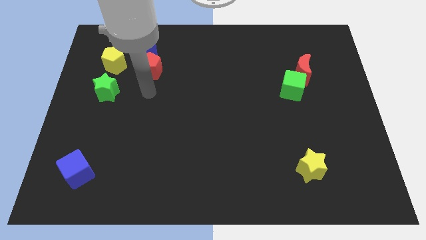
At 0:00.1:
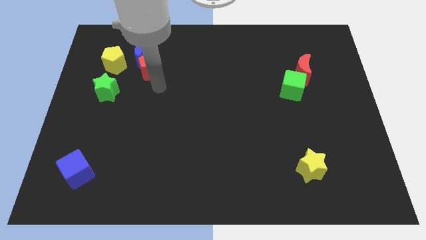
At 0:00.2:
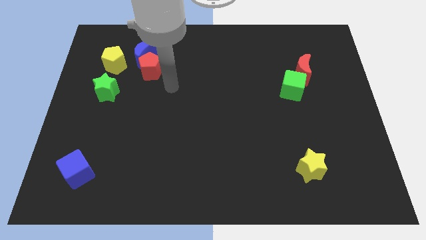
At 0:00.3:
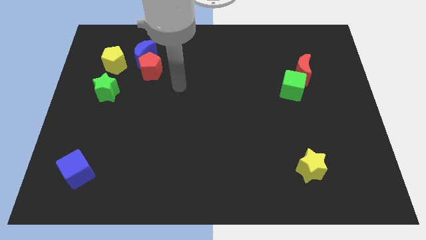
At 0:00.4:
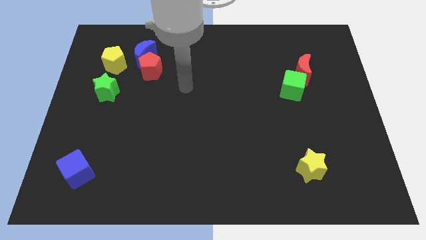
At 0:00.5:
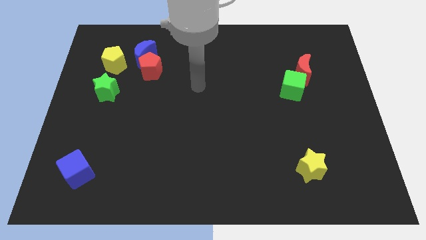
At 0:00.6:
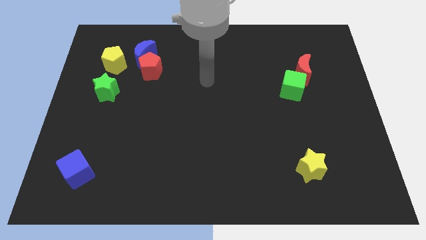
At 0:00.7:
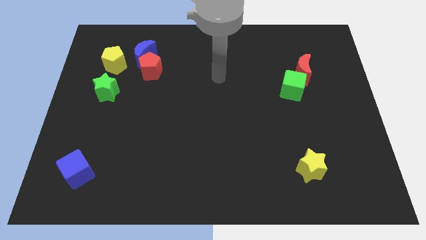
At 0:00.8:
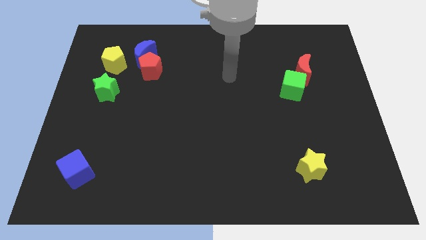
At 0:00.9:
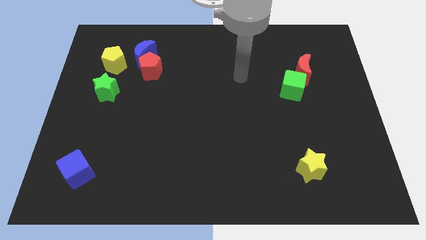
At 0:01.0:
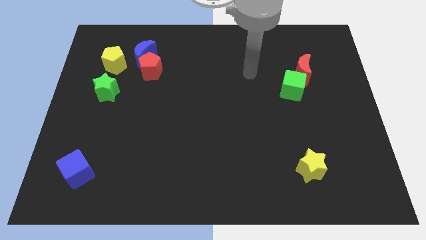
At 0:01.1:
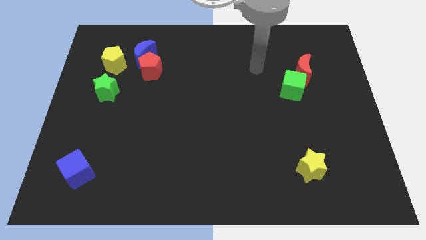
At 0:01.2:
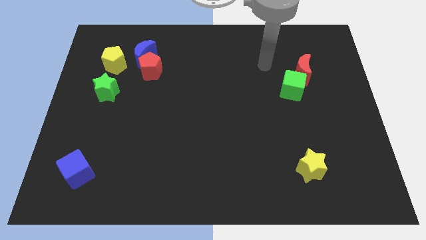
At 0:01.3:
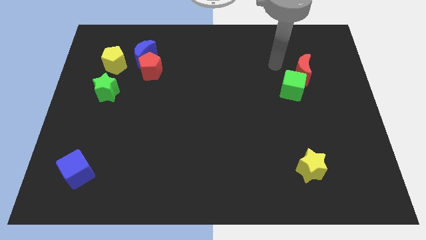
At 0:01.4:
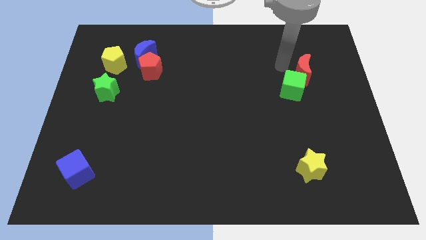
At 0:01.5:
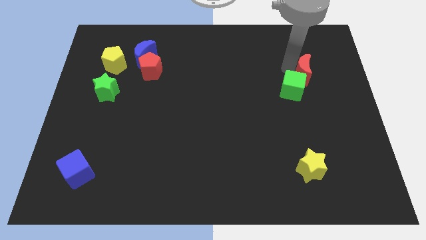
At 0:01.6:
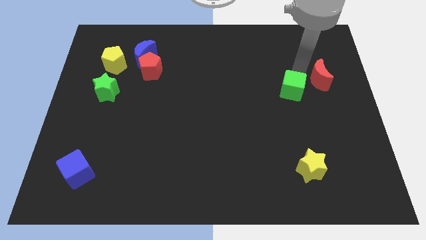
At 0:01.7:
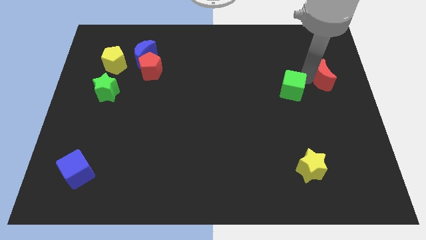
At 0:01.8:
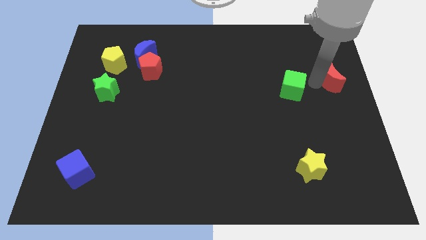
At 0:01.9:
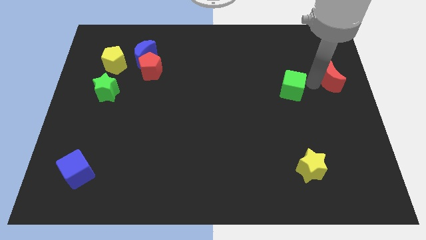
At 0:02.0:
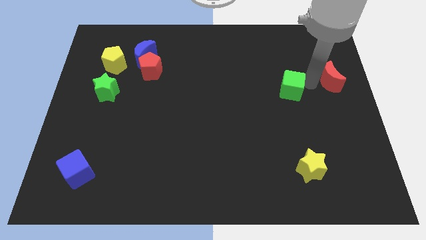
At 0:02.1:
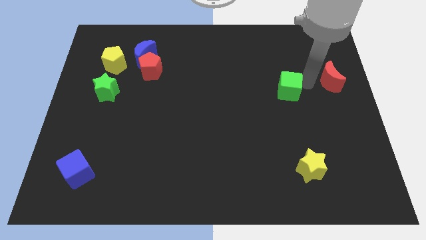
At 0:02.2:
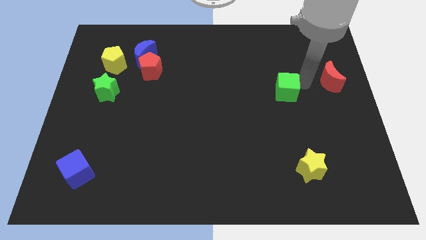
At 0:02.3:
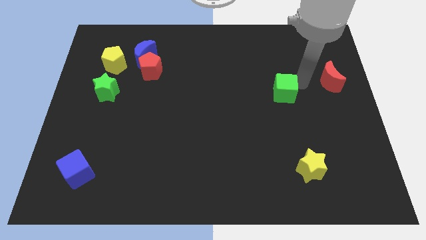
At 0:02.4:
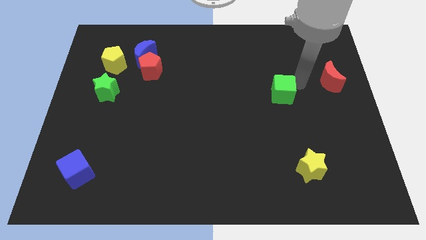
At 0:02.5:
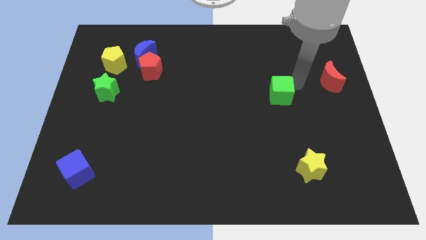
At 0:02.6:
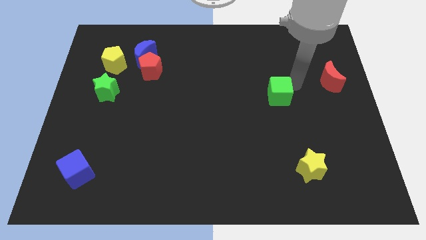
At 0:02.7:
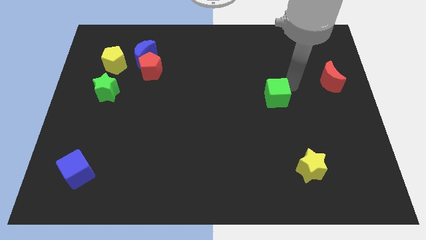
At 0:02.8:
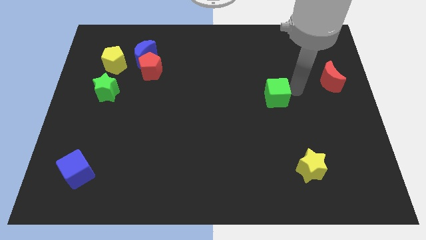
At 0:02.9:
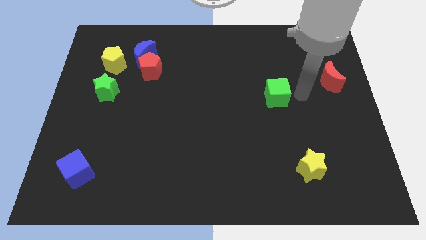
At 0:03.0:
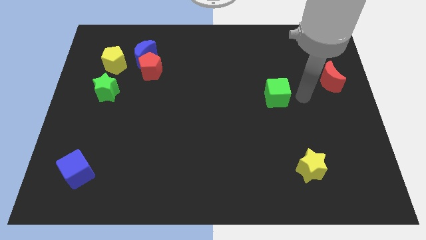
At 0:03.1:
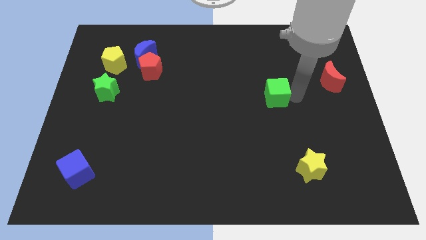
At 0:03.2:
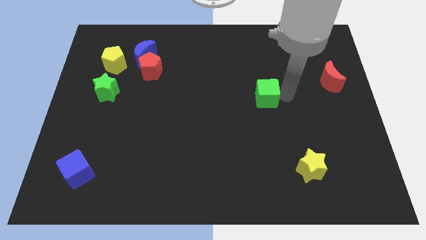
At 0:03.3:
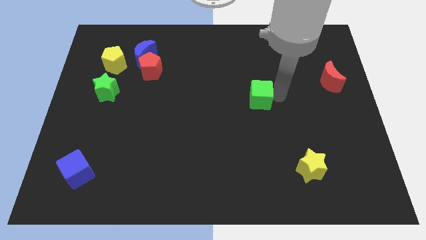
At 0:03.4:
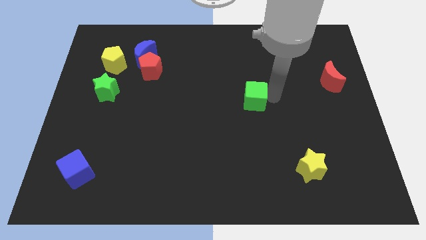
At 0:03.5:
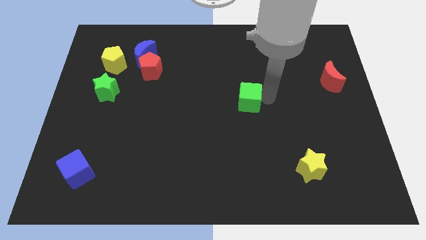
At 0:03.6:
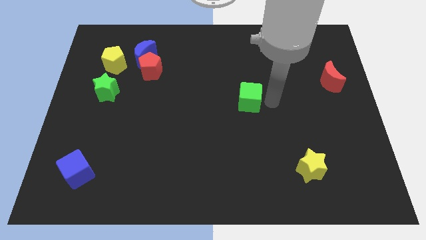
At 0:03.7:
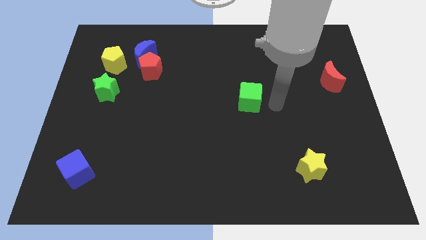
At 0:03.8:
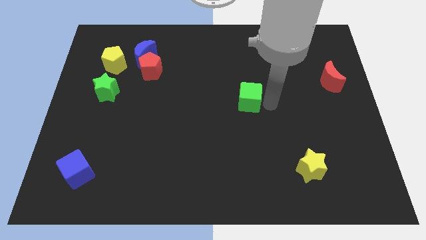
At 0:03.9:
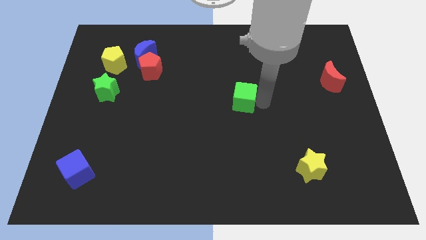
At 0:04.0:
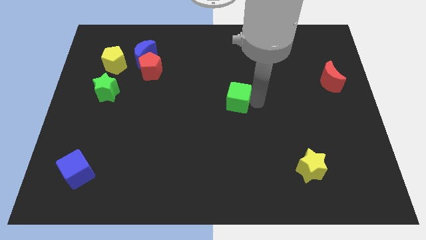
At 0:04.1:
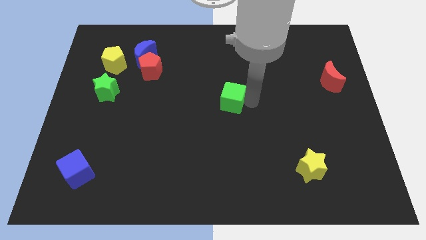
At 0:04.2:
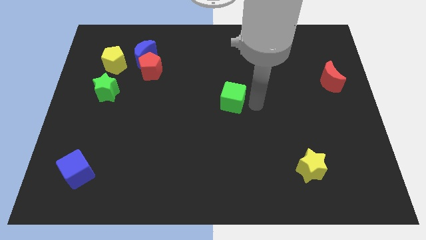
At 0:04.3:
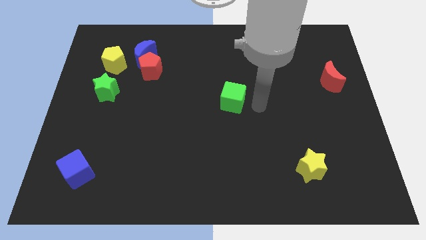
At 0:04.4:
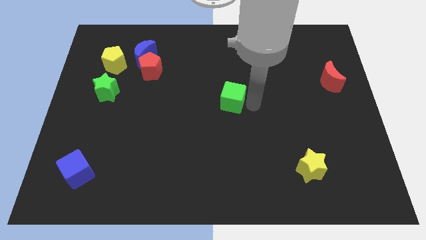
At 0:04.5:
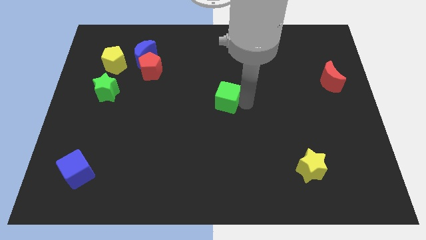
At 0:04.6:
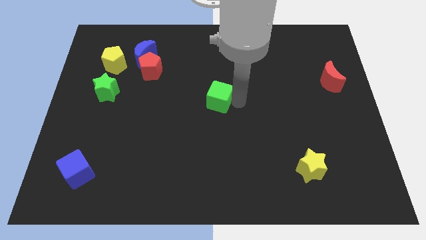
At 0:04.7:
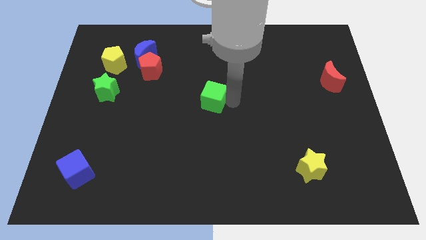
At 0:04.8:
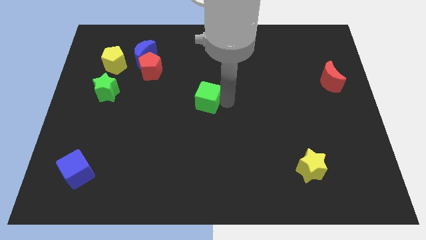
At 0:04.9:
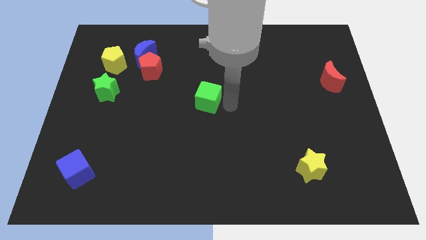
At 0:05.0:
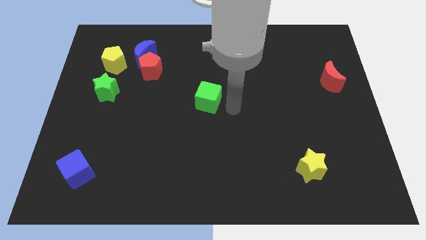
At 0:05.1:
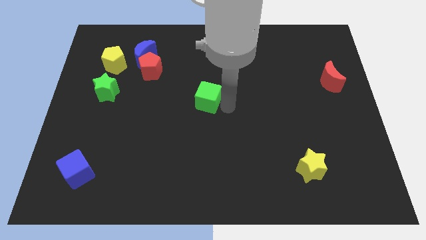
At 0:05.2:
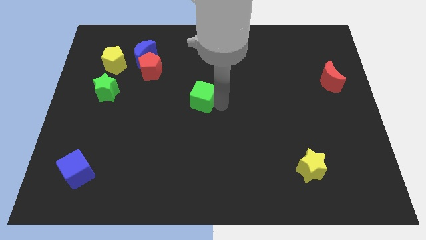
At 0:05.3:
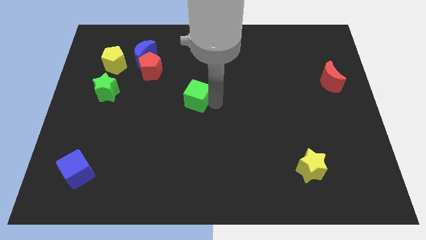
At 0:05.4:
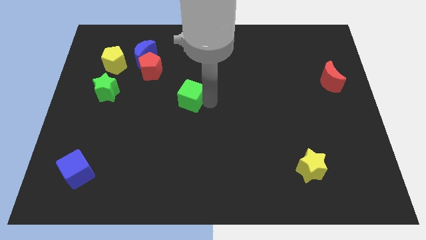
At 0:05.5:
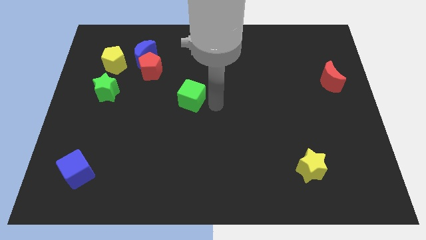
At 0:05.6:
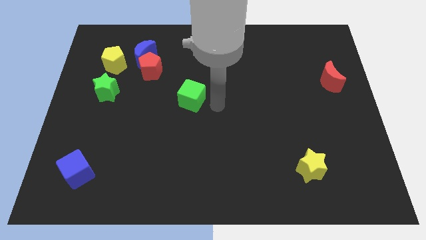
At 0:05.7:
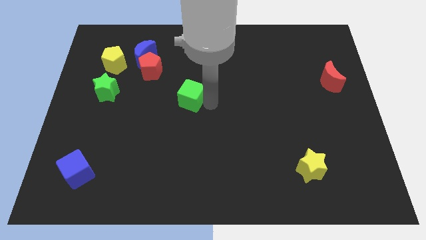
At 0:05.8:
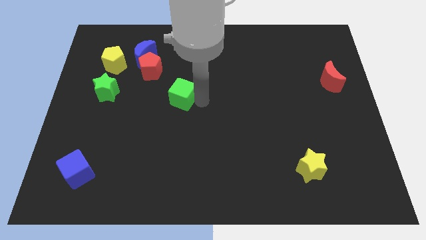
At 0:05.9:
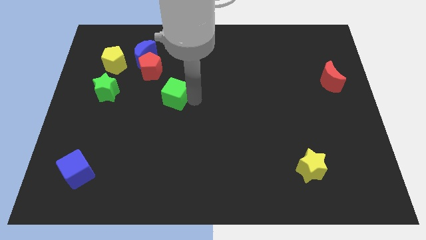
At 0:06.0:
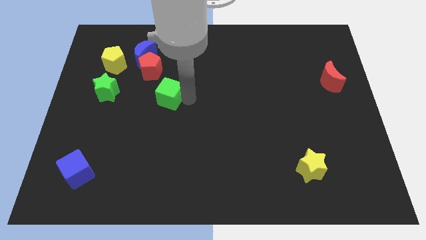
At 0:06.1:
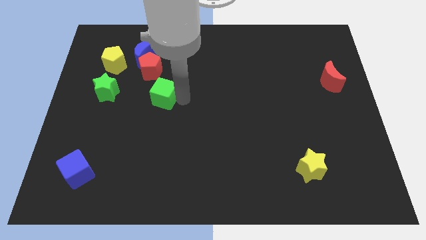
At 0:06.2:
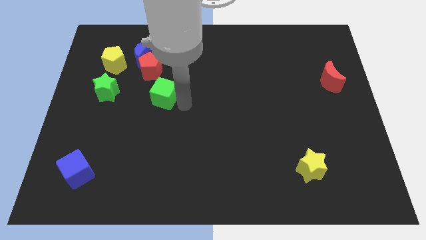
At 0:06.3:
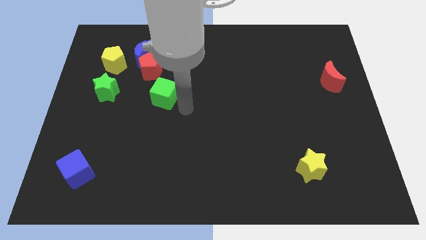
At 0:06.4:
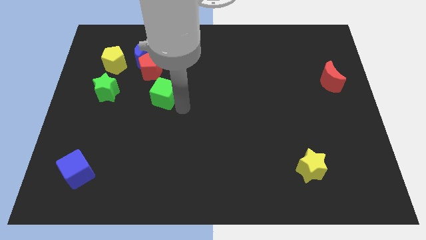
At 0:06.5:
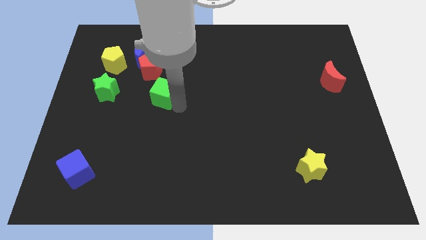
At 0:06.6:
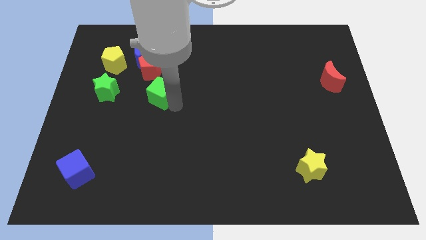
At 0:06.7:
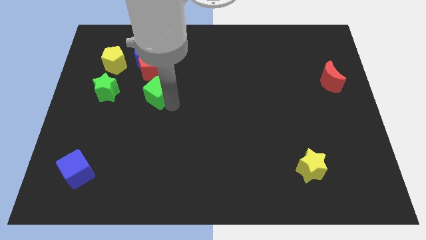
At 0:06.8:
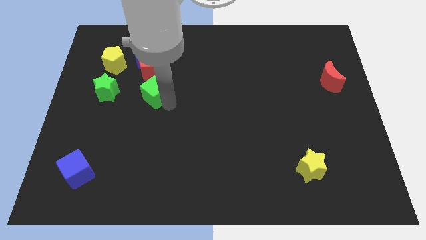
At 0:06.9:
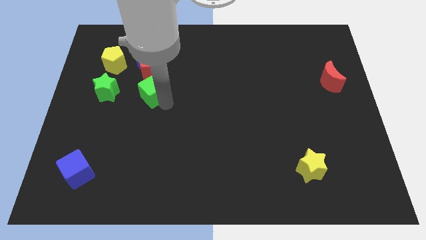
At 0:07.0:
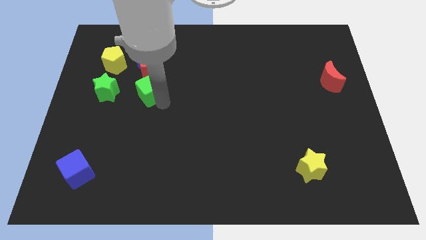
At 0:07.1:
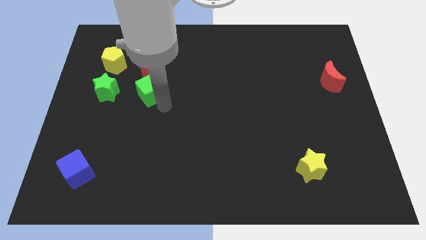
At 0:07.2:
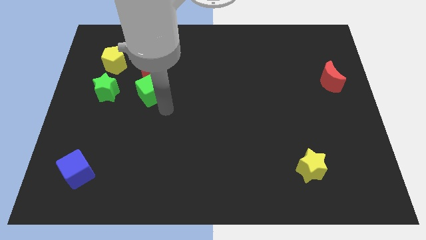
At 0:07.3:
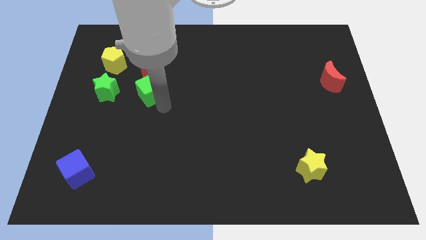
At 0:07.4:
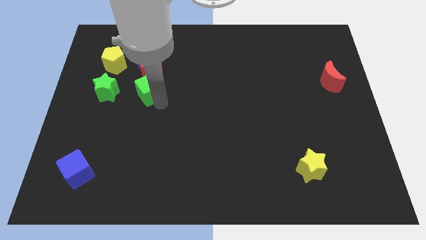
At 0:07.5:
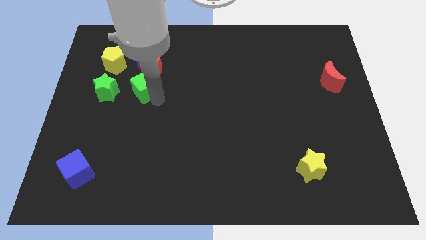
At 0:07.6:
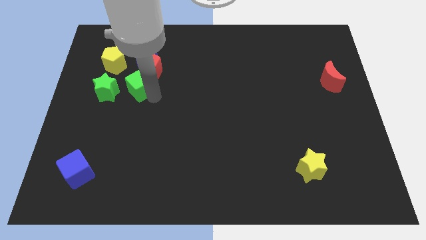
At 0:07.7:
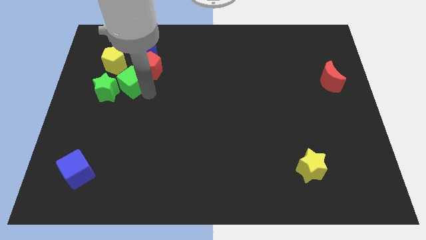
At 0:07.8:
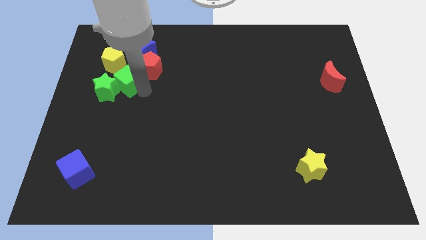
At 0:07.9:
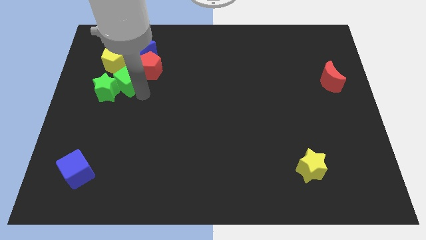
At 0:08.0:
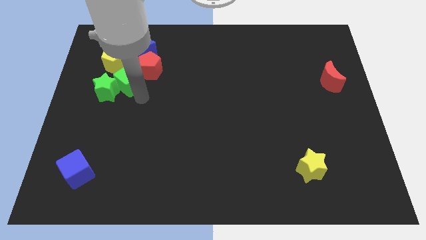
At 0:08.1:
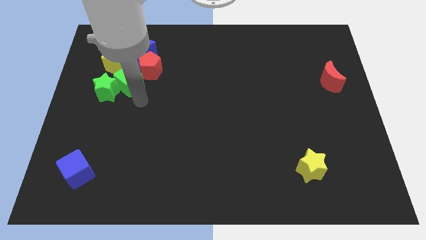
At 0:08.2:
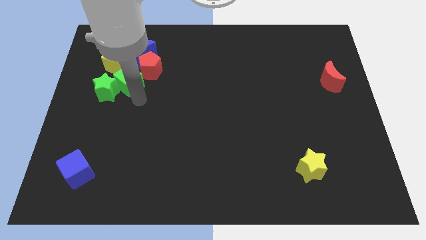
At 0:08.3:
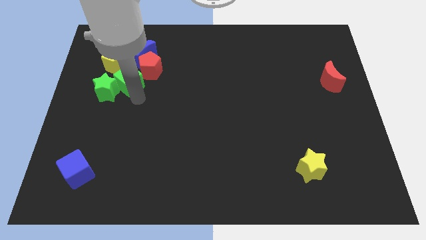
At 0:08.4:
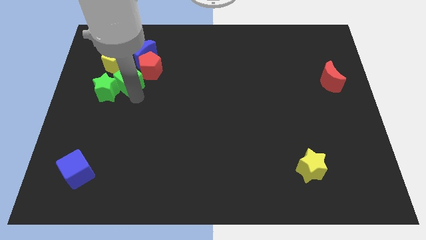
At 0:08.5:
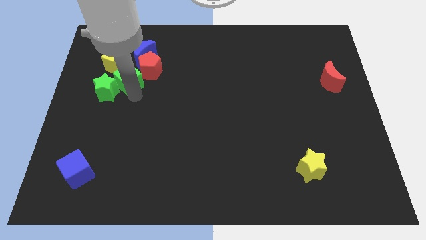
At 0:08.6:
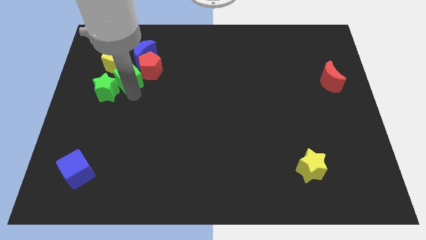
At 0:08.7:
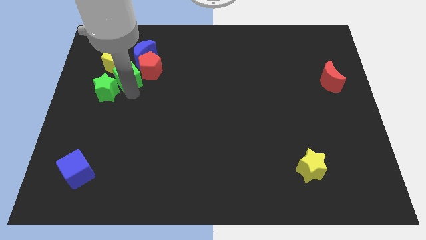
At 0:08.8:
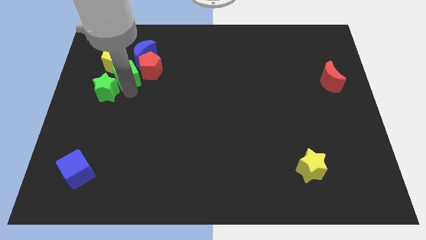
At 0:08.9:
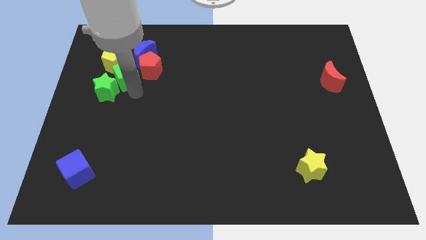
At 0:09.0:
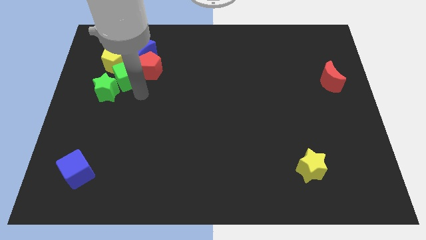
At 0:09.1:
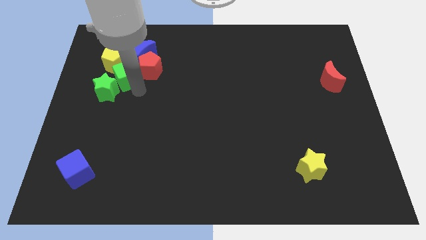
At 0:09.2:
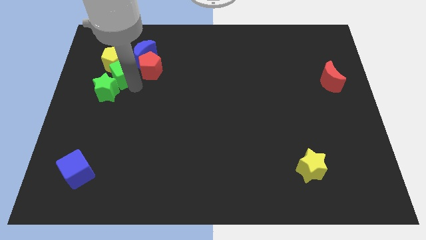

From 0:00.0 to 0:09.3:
push the green cube close to the yellow pentagon
